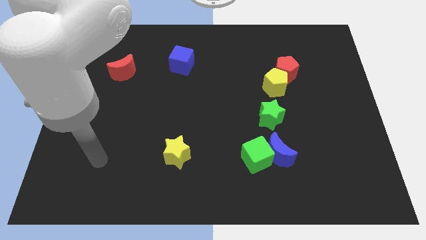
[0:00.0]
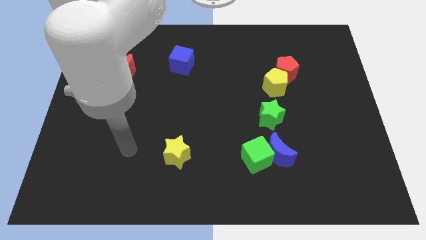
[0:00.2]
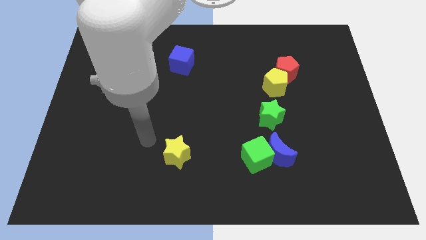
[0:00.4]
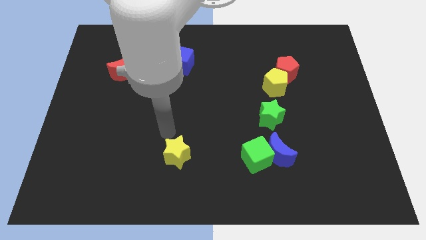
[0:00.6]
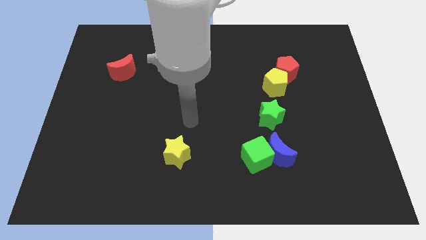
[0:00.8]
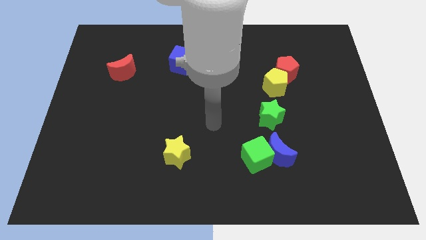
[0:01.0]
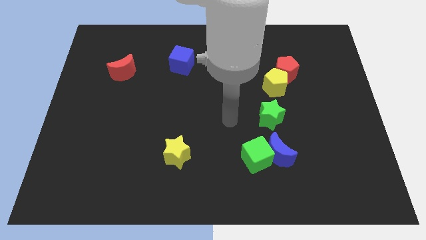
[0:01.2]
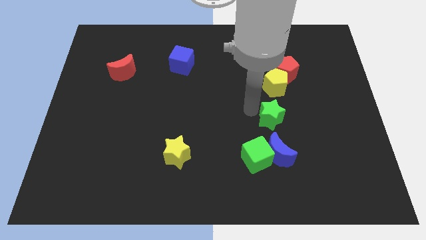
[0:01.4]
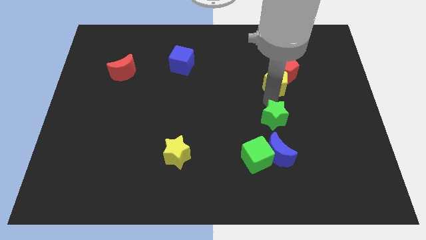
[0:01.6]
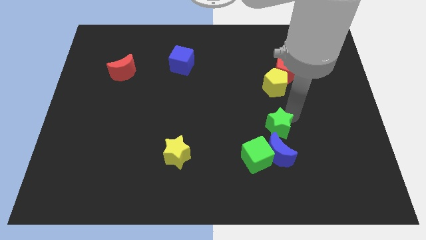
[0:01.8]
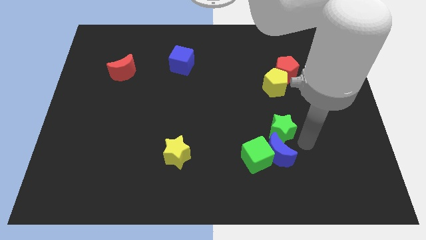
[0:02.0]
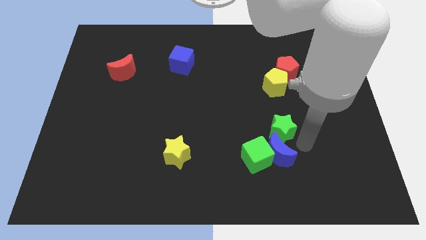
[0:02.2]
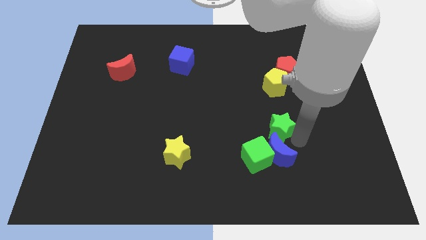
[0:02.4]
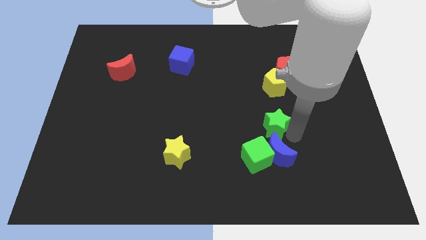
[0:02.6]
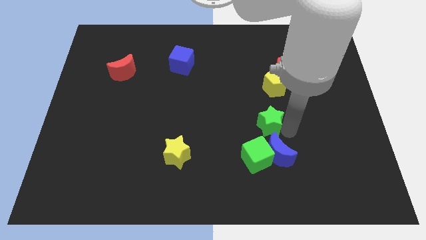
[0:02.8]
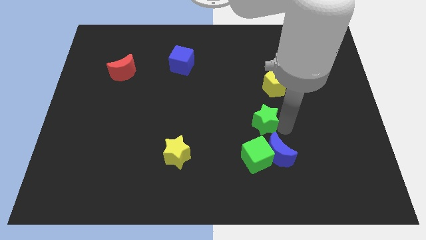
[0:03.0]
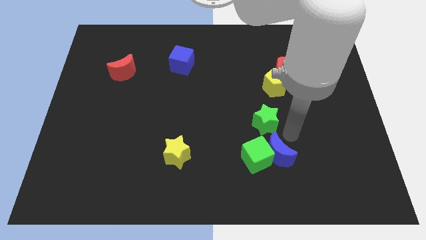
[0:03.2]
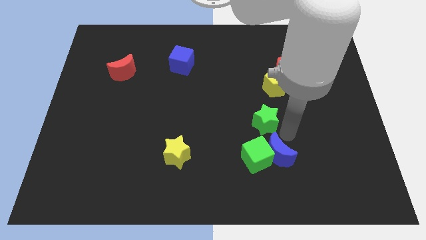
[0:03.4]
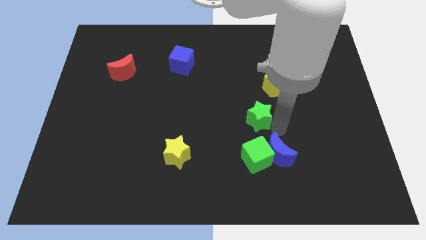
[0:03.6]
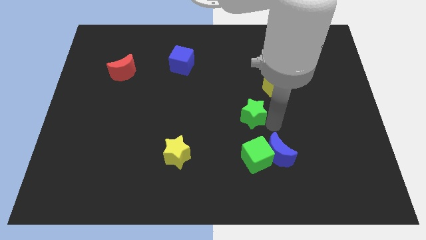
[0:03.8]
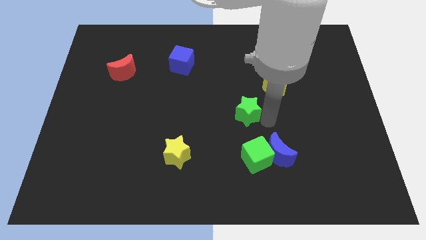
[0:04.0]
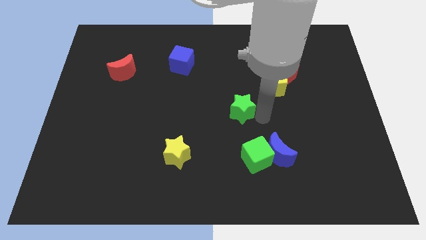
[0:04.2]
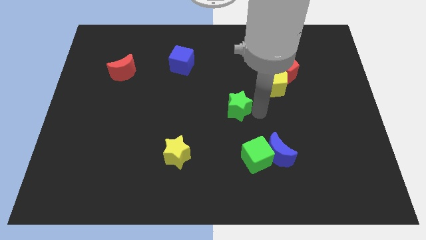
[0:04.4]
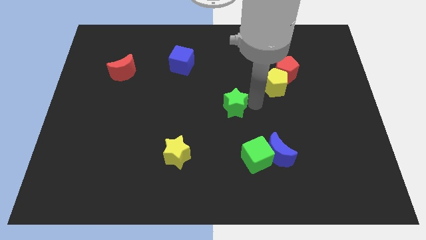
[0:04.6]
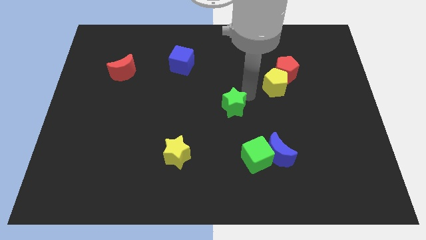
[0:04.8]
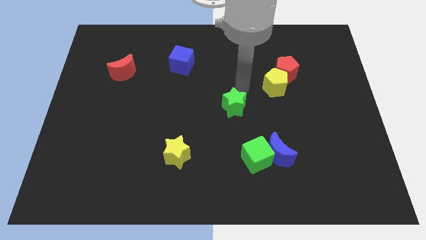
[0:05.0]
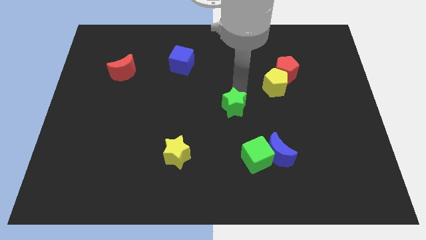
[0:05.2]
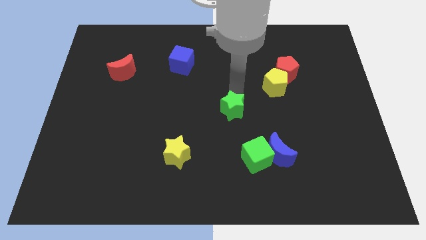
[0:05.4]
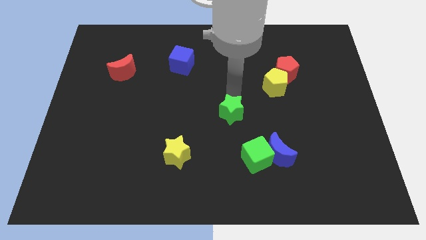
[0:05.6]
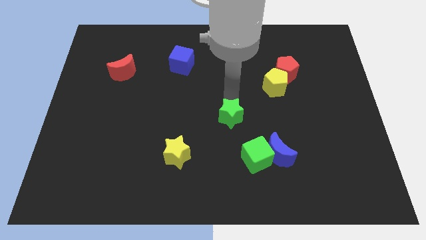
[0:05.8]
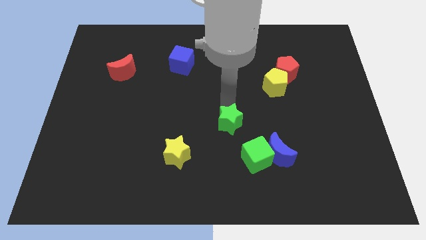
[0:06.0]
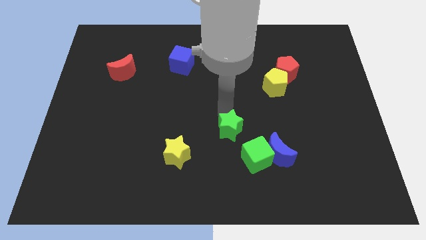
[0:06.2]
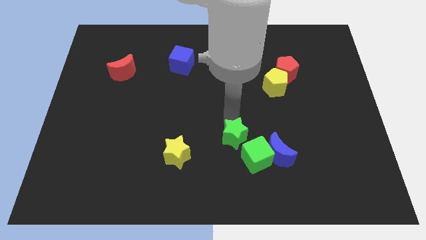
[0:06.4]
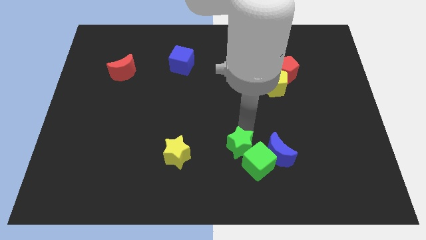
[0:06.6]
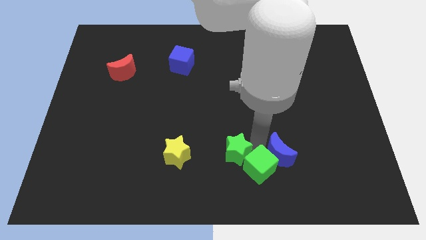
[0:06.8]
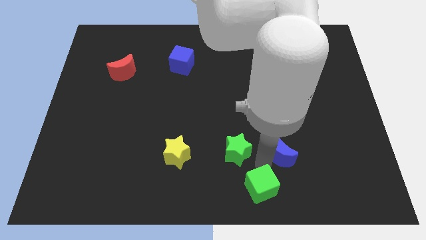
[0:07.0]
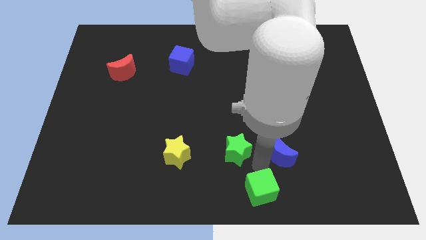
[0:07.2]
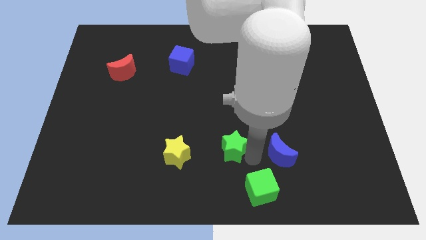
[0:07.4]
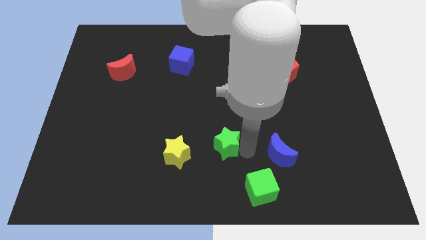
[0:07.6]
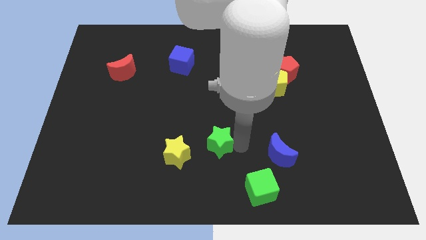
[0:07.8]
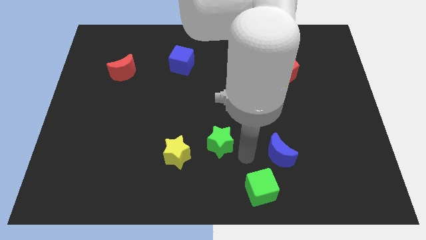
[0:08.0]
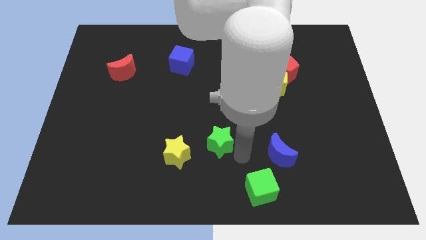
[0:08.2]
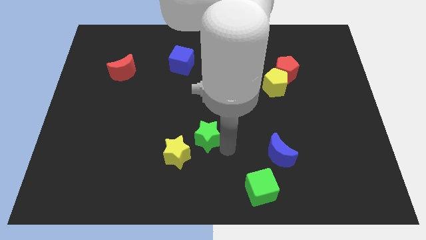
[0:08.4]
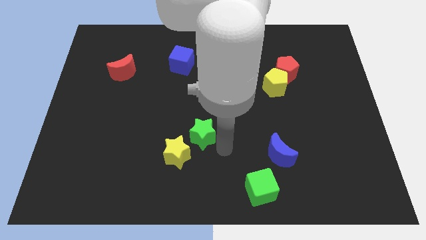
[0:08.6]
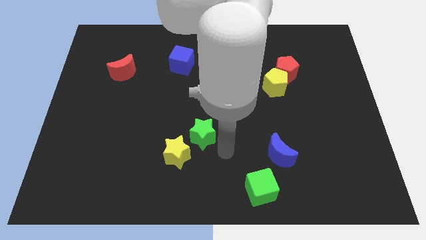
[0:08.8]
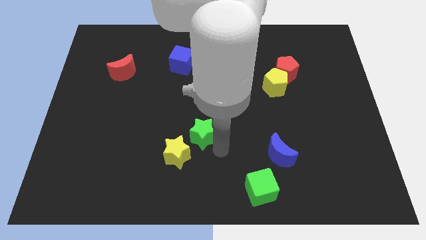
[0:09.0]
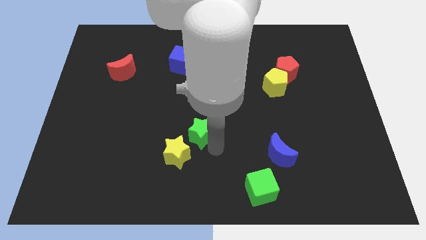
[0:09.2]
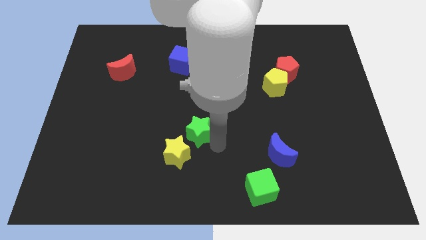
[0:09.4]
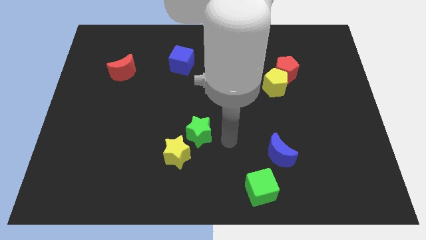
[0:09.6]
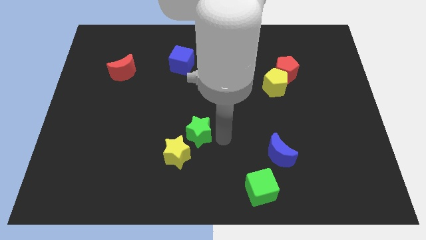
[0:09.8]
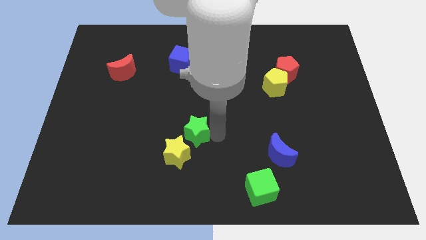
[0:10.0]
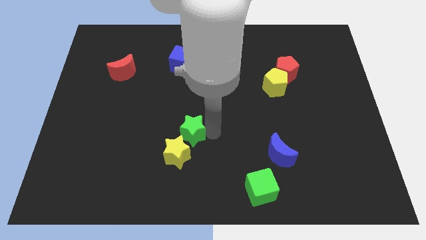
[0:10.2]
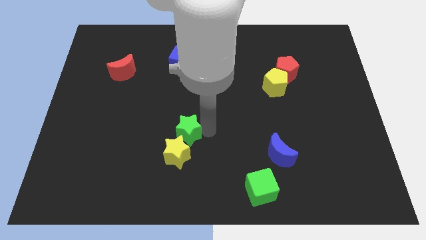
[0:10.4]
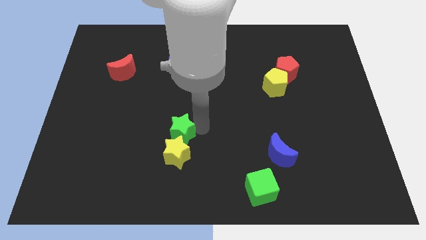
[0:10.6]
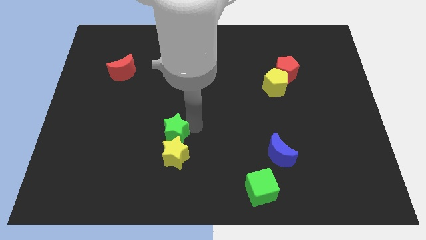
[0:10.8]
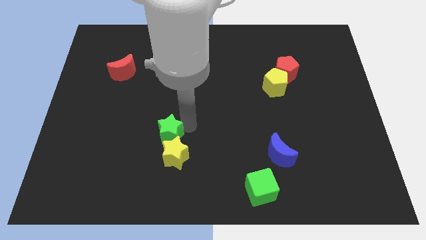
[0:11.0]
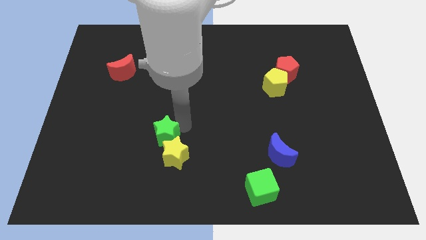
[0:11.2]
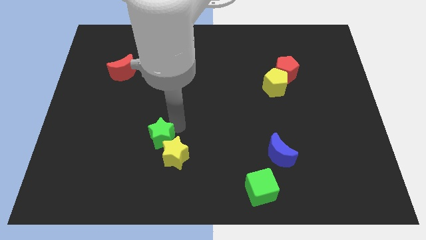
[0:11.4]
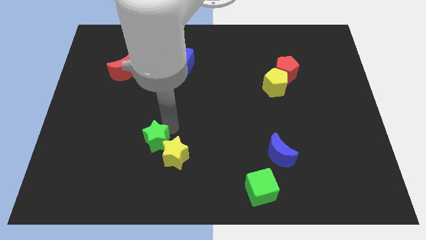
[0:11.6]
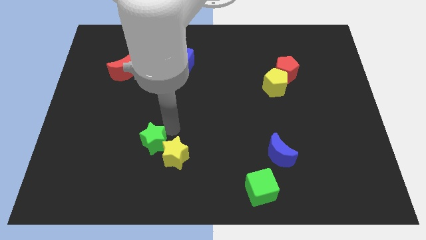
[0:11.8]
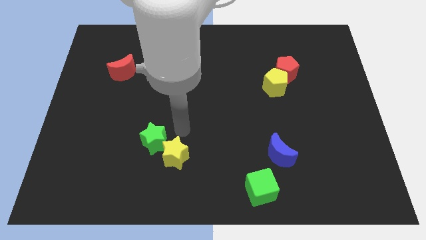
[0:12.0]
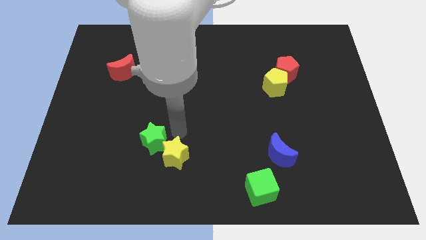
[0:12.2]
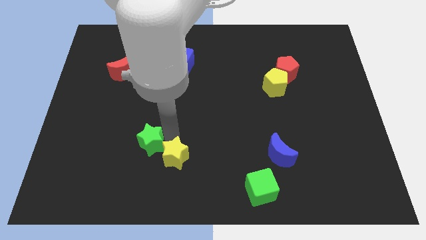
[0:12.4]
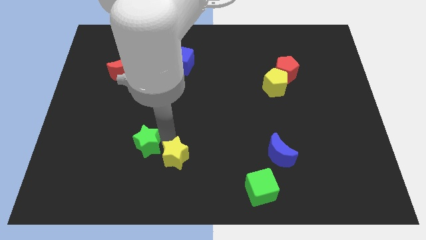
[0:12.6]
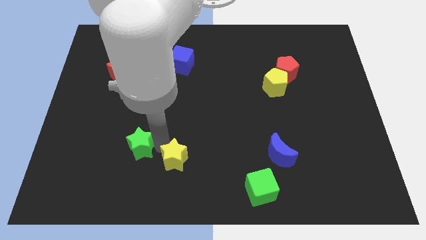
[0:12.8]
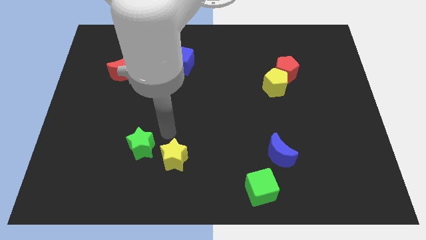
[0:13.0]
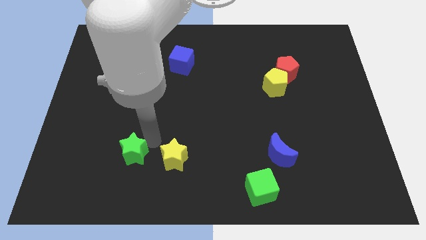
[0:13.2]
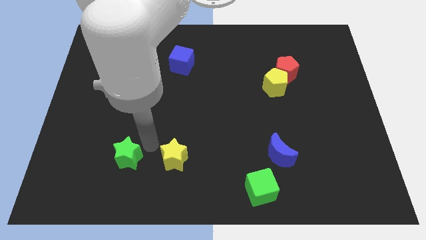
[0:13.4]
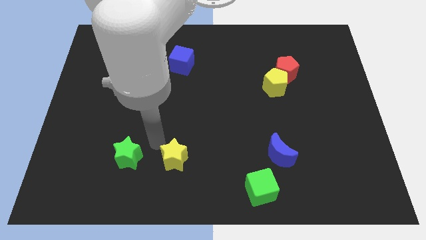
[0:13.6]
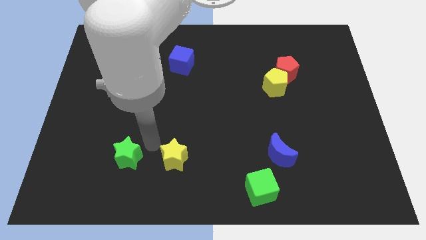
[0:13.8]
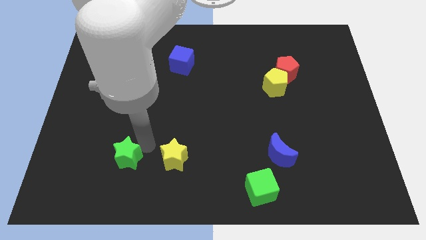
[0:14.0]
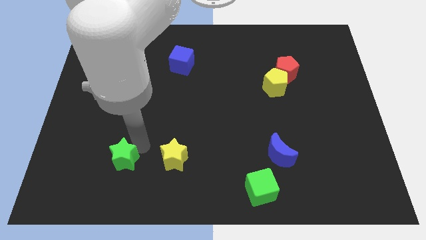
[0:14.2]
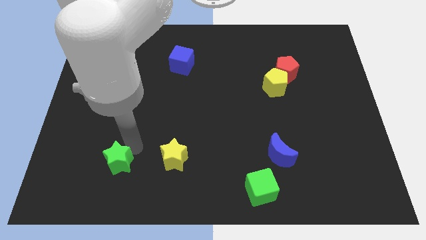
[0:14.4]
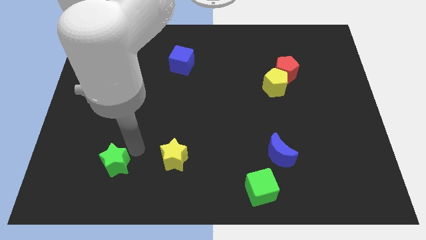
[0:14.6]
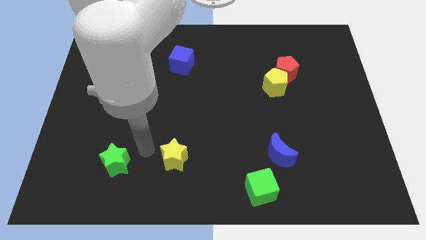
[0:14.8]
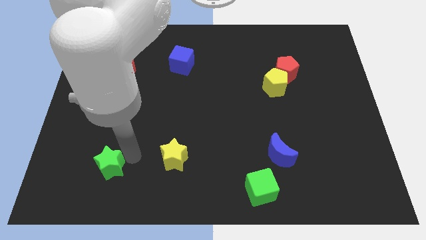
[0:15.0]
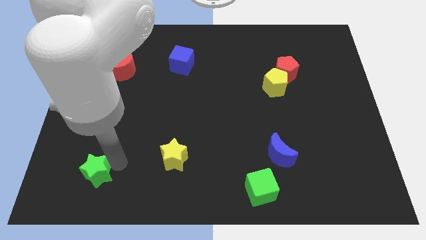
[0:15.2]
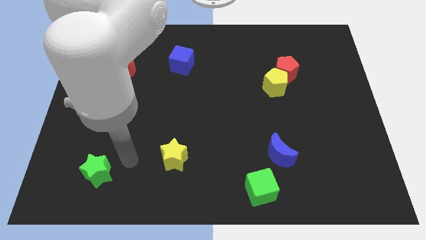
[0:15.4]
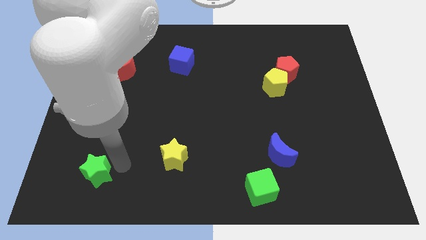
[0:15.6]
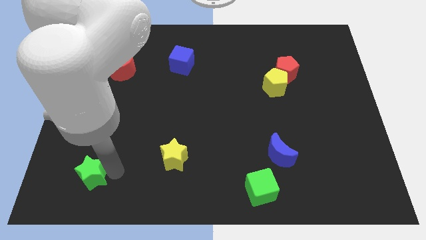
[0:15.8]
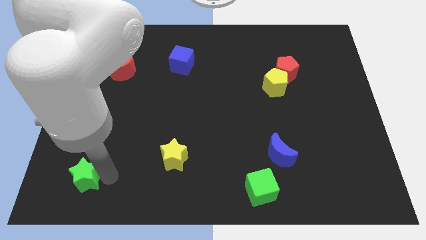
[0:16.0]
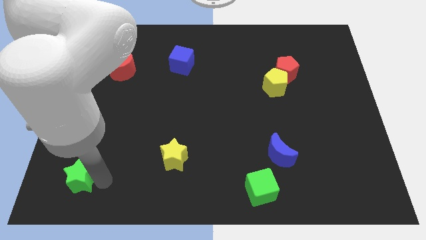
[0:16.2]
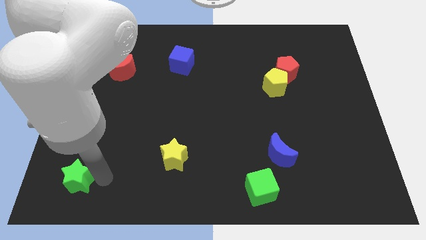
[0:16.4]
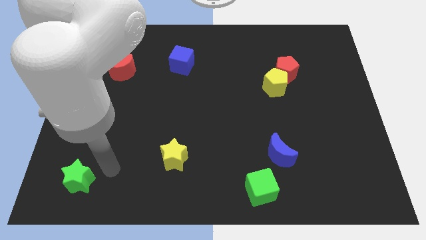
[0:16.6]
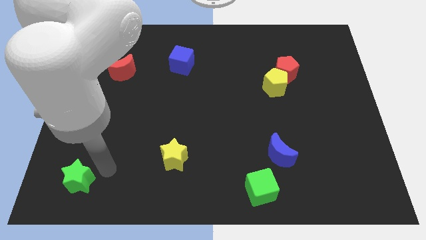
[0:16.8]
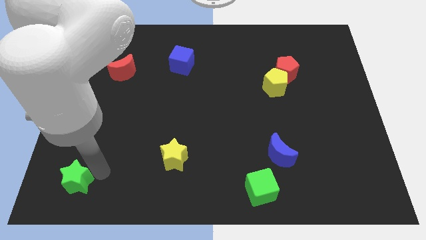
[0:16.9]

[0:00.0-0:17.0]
push the green star to the bottom left of the board
